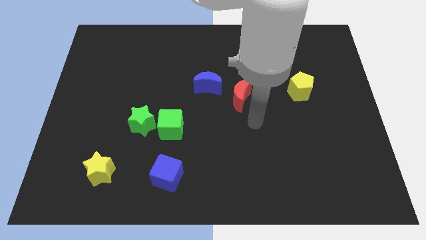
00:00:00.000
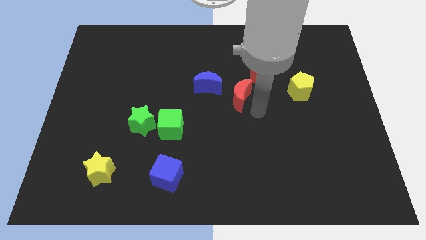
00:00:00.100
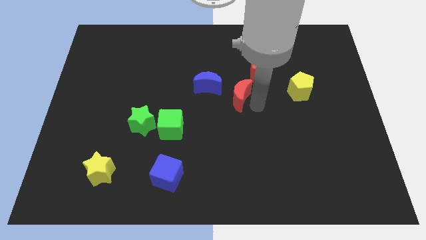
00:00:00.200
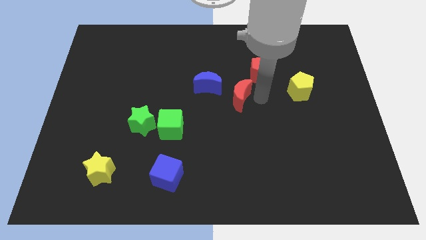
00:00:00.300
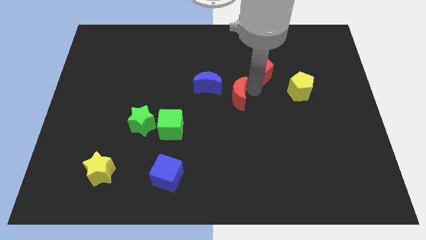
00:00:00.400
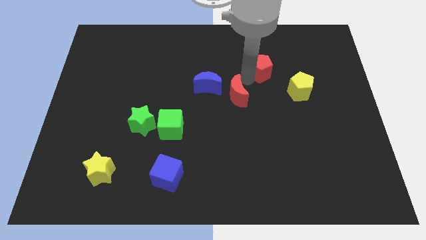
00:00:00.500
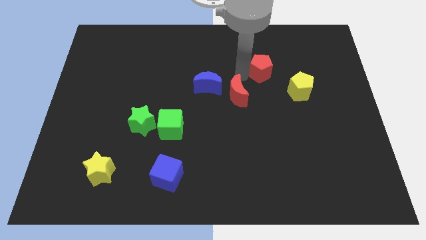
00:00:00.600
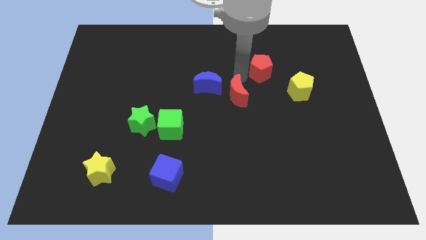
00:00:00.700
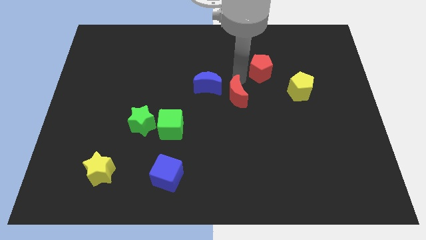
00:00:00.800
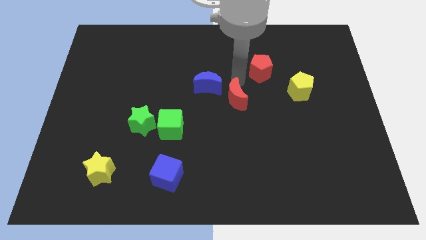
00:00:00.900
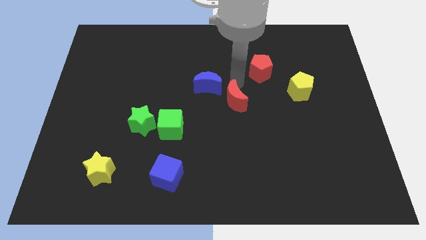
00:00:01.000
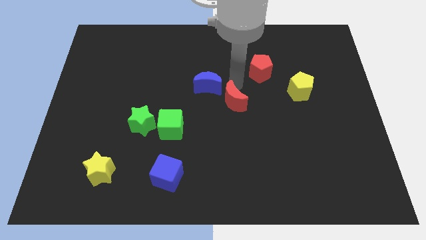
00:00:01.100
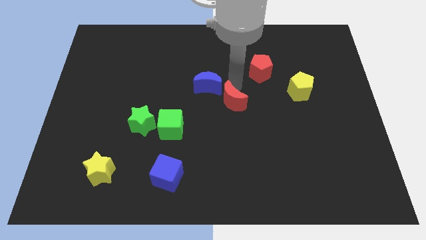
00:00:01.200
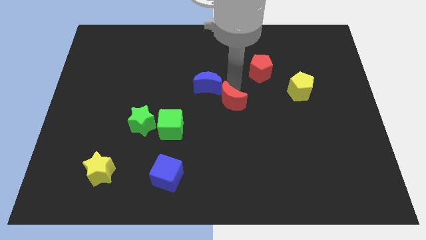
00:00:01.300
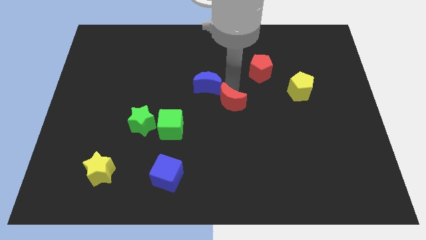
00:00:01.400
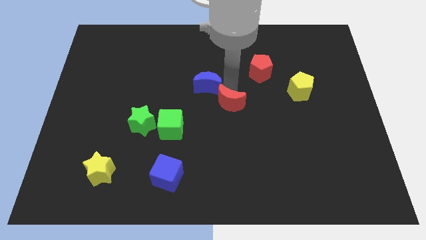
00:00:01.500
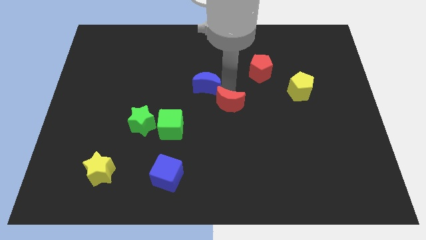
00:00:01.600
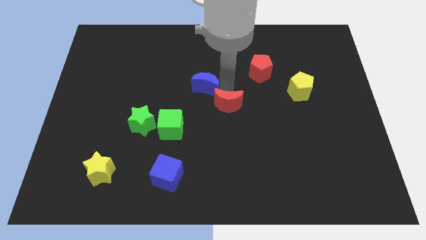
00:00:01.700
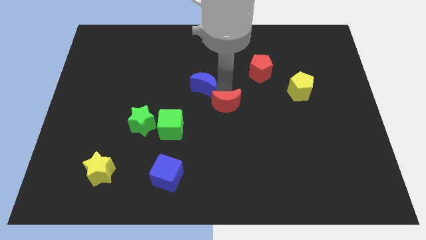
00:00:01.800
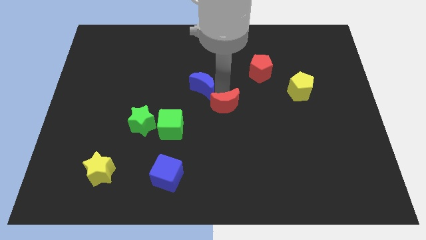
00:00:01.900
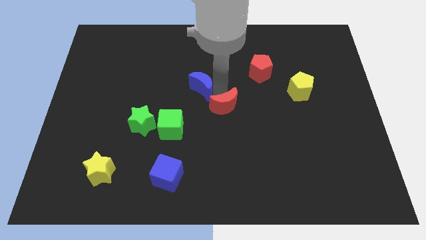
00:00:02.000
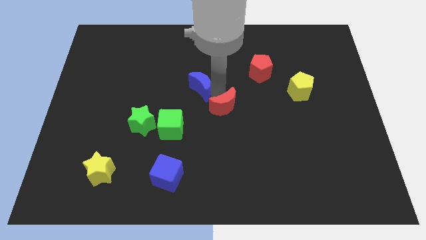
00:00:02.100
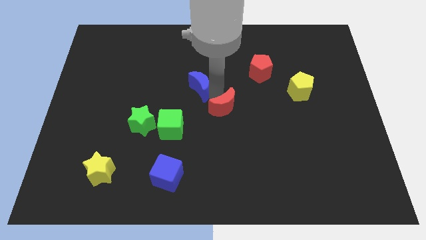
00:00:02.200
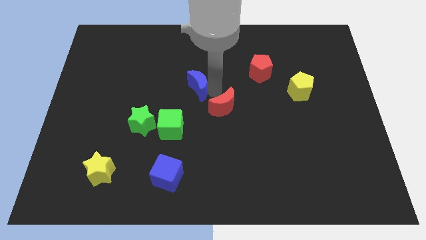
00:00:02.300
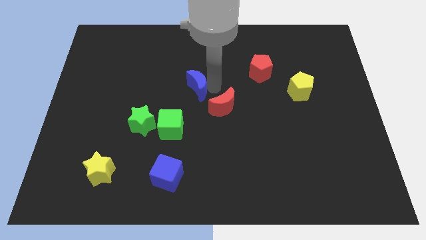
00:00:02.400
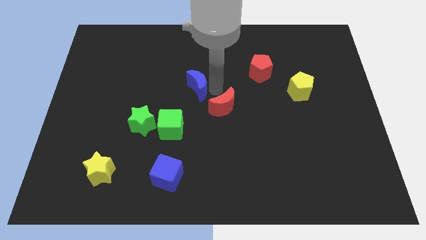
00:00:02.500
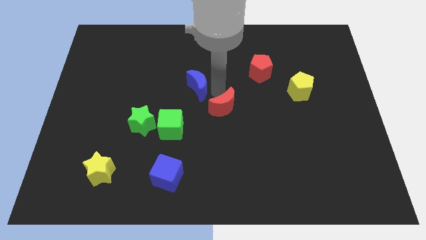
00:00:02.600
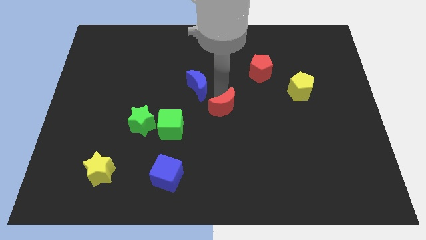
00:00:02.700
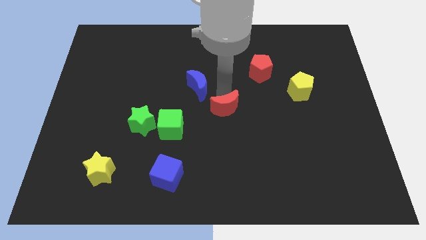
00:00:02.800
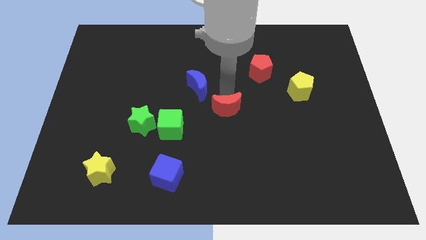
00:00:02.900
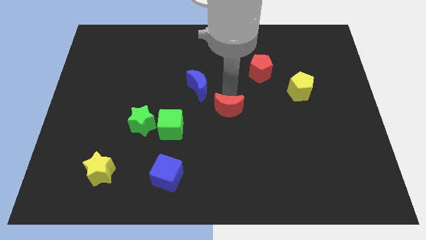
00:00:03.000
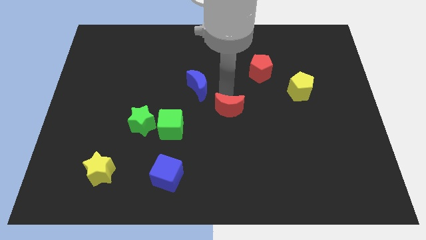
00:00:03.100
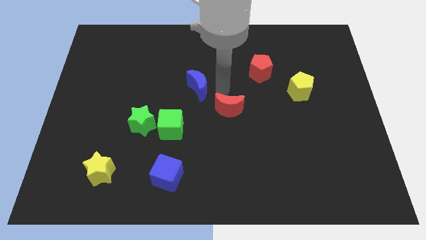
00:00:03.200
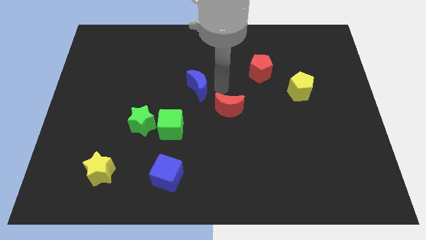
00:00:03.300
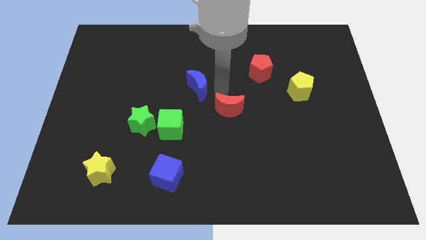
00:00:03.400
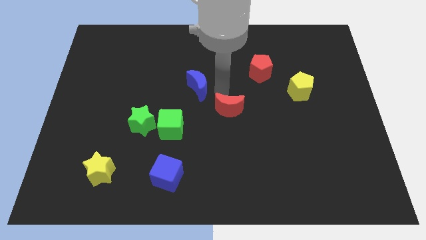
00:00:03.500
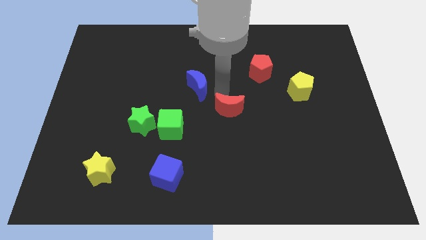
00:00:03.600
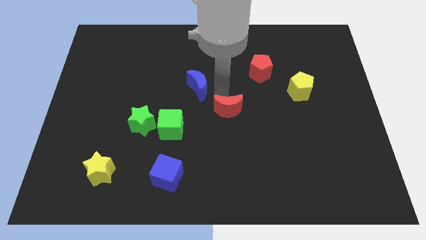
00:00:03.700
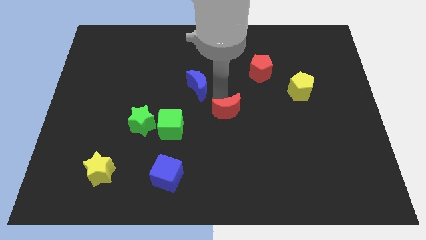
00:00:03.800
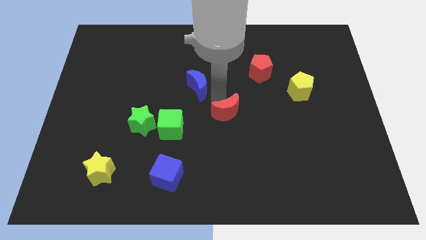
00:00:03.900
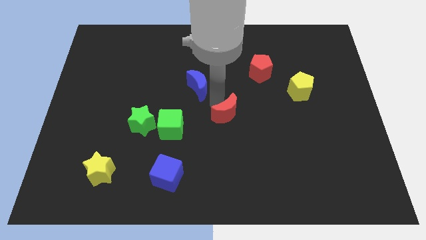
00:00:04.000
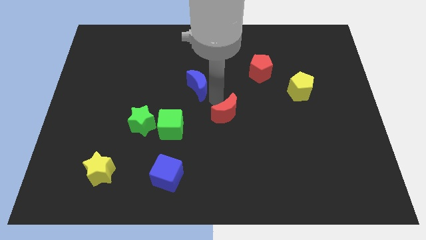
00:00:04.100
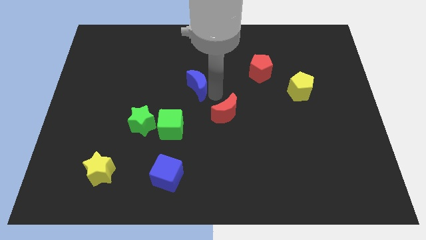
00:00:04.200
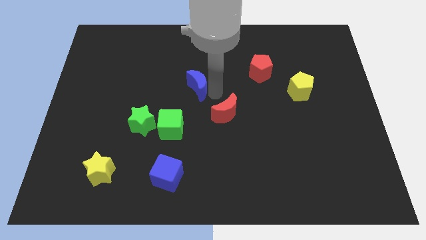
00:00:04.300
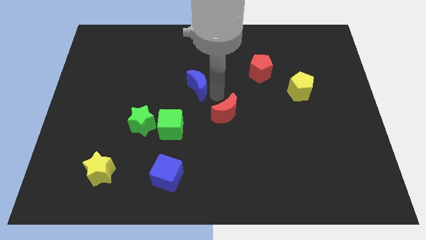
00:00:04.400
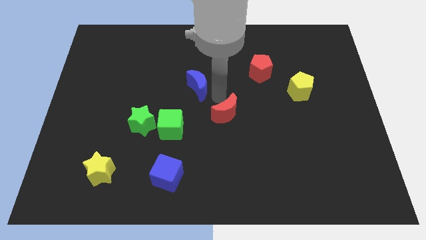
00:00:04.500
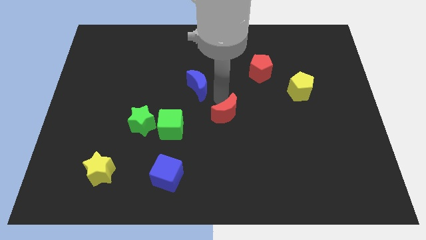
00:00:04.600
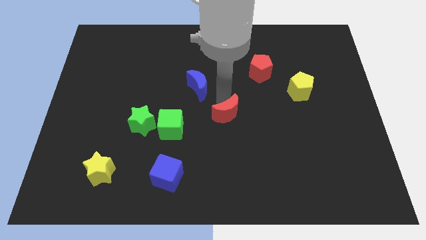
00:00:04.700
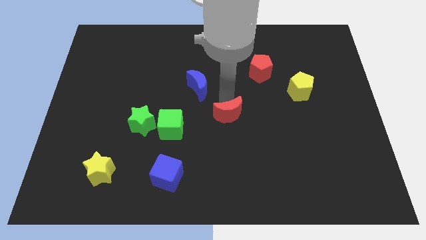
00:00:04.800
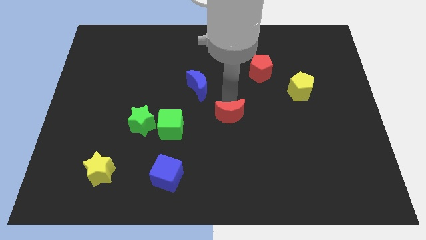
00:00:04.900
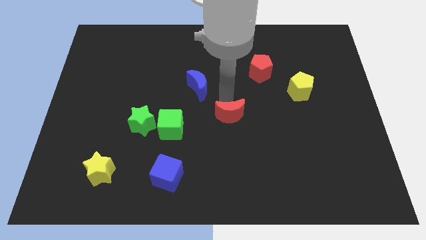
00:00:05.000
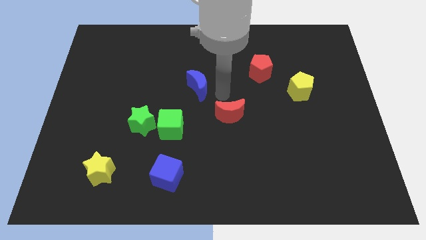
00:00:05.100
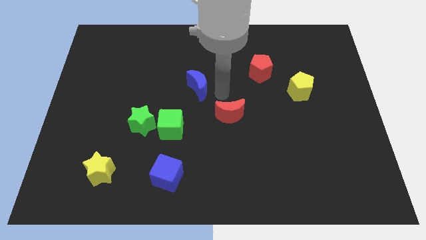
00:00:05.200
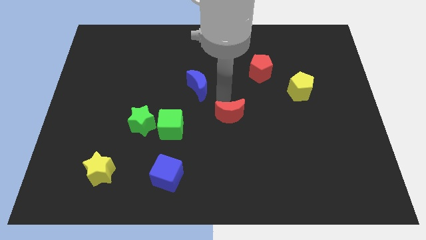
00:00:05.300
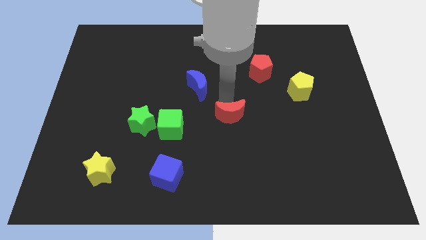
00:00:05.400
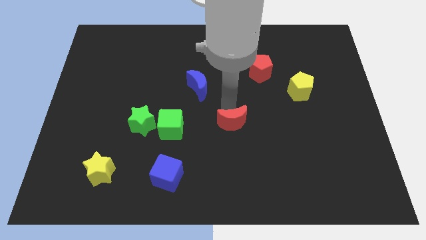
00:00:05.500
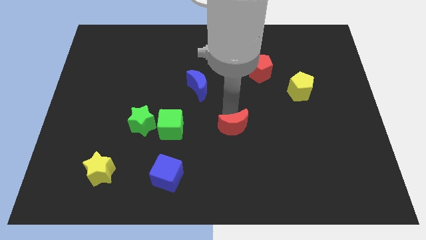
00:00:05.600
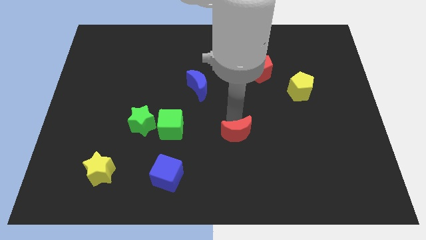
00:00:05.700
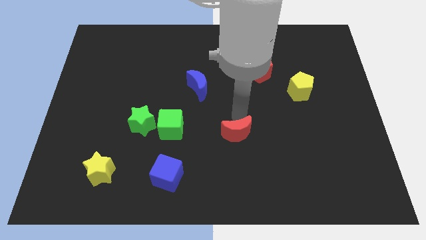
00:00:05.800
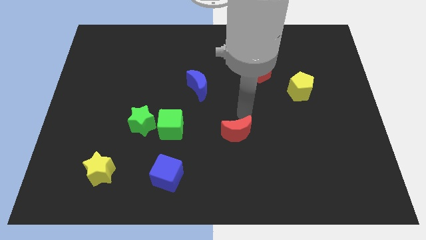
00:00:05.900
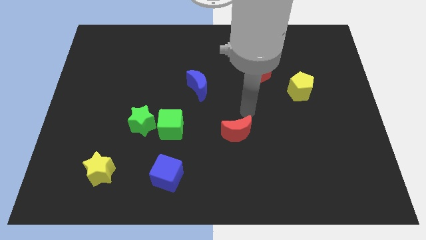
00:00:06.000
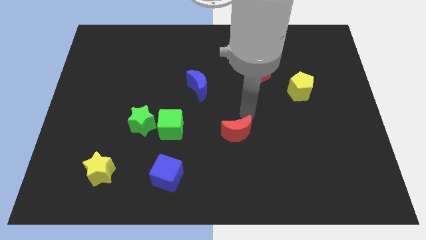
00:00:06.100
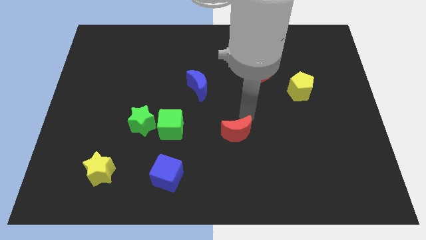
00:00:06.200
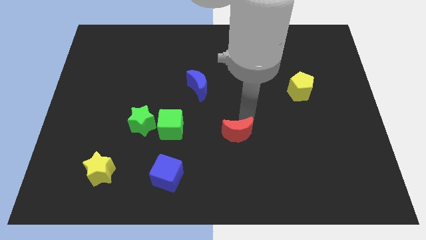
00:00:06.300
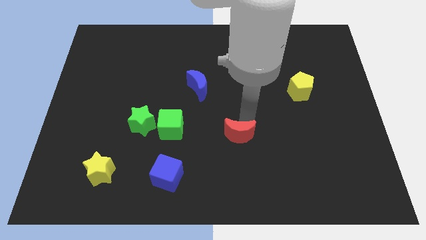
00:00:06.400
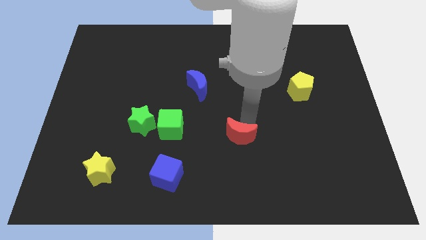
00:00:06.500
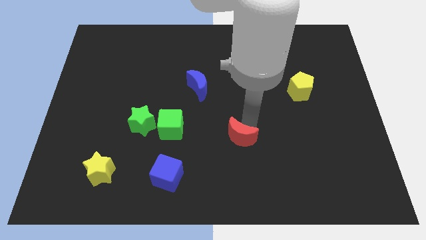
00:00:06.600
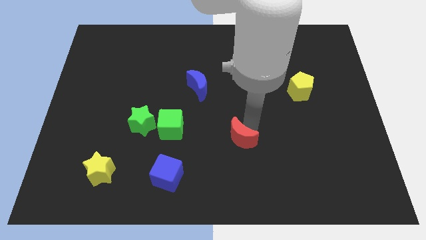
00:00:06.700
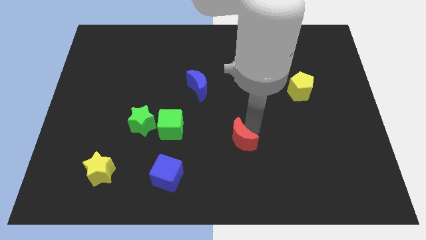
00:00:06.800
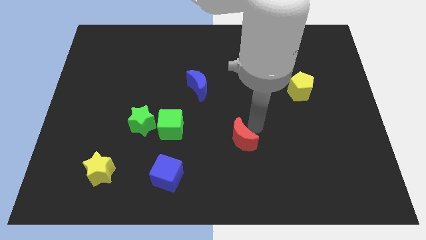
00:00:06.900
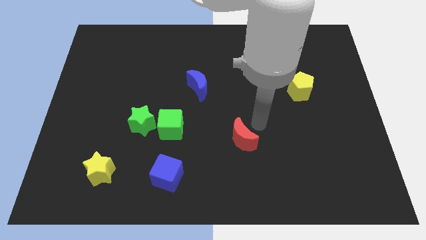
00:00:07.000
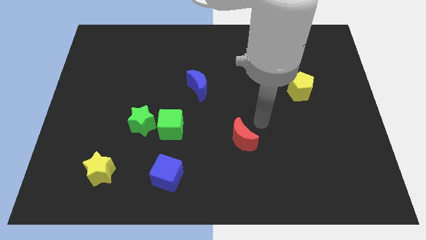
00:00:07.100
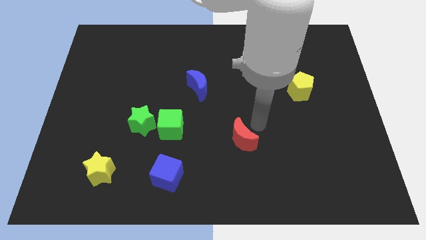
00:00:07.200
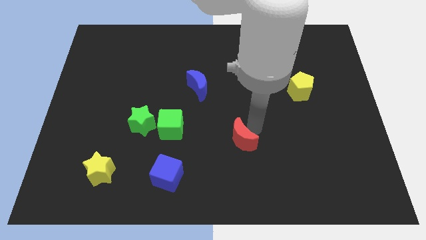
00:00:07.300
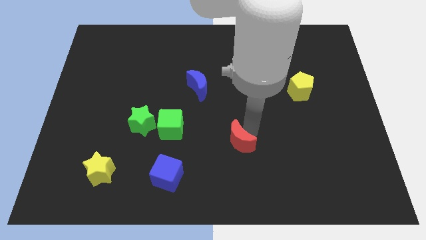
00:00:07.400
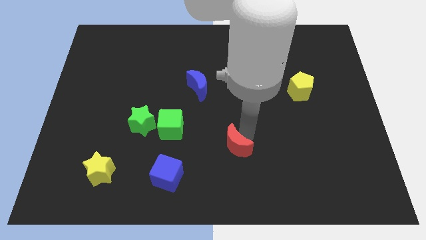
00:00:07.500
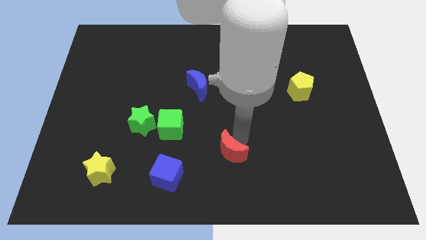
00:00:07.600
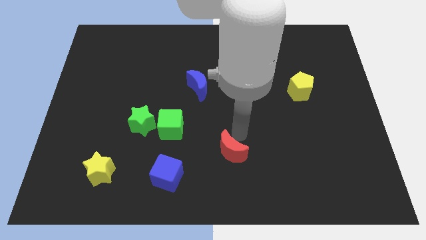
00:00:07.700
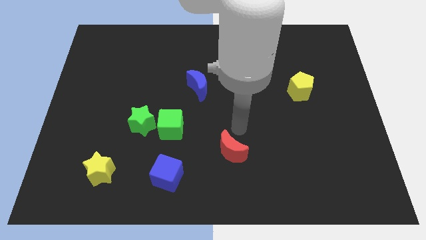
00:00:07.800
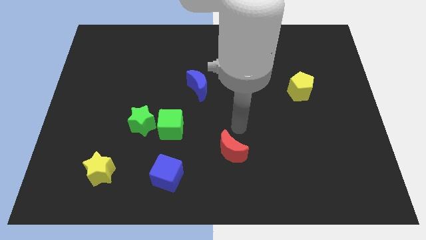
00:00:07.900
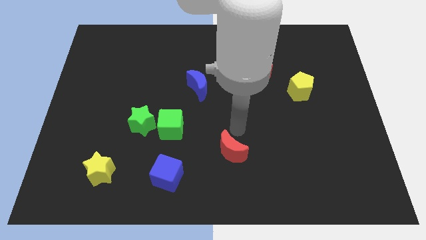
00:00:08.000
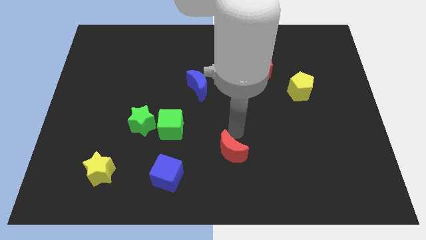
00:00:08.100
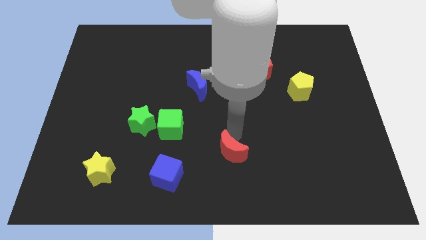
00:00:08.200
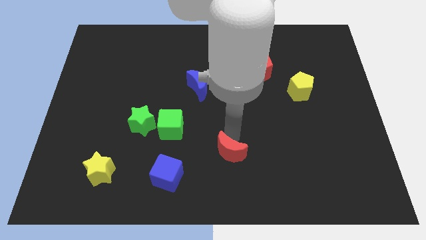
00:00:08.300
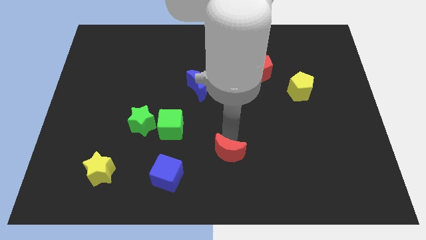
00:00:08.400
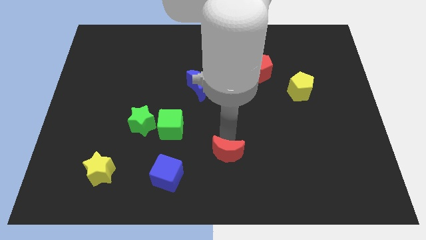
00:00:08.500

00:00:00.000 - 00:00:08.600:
put the red moon to the bottom side
